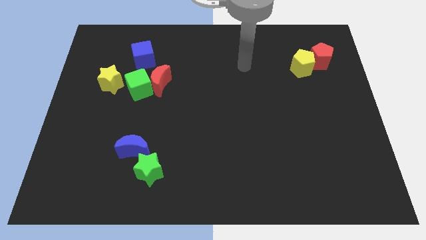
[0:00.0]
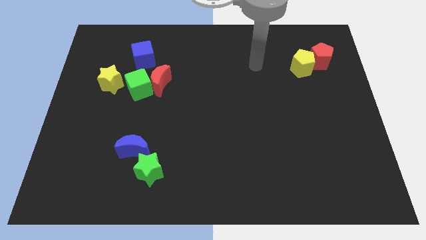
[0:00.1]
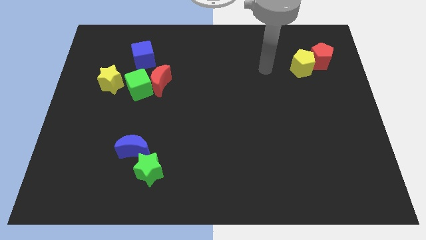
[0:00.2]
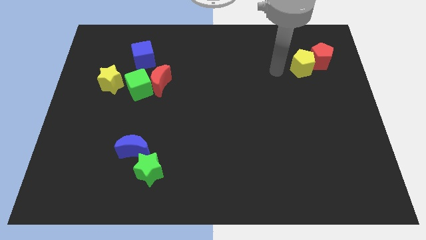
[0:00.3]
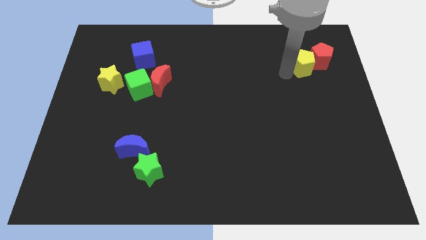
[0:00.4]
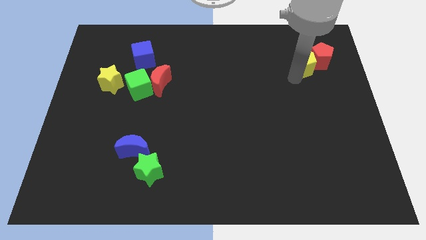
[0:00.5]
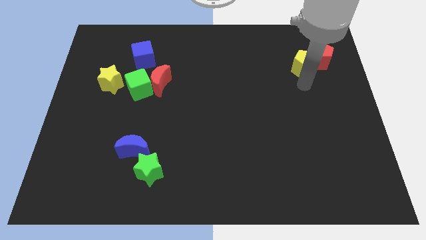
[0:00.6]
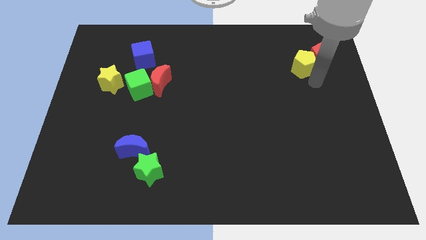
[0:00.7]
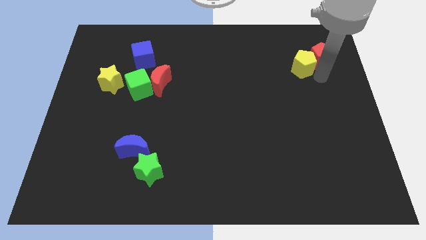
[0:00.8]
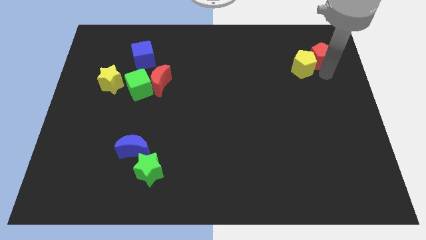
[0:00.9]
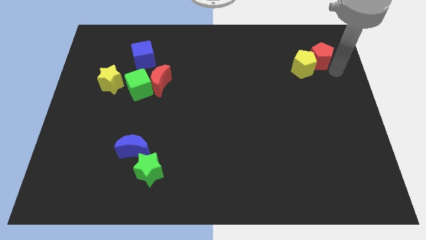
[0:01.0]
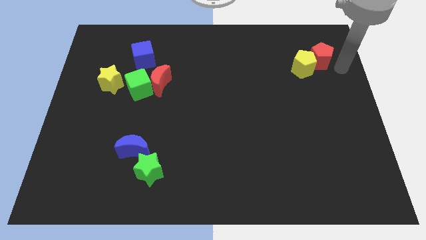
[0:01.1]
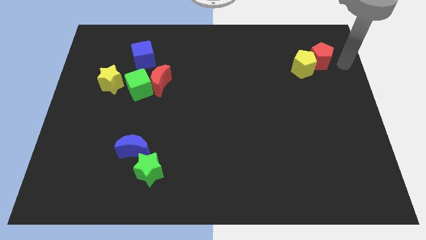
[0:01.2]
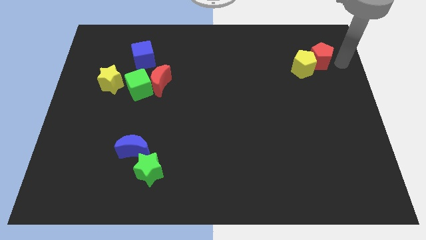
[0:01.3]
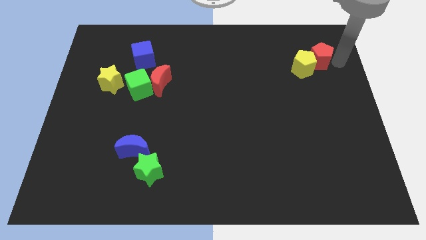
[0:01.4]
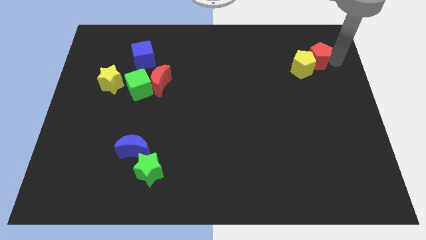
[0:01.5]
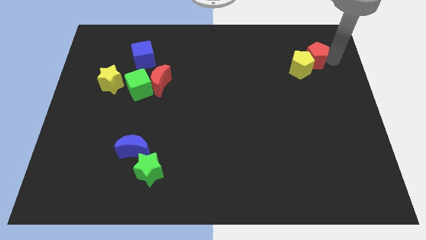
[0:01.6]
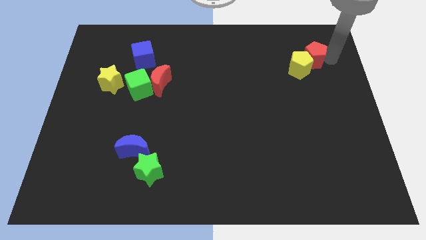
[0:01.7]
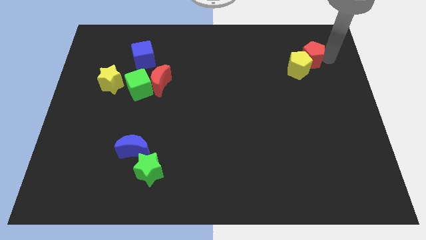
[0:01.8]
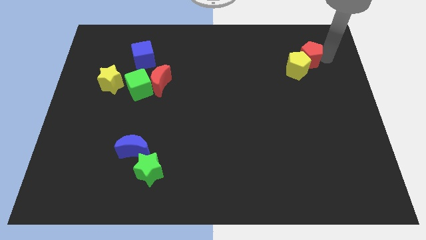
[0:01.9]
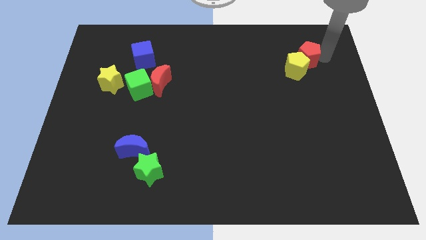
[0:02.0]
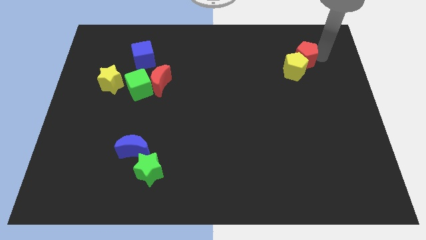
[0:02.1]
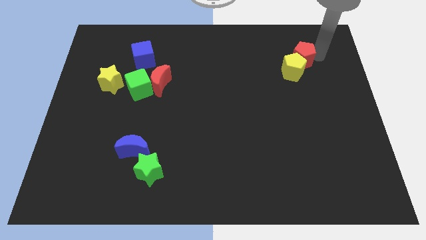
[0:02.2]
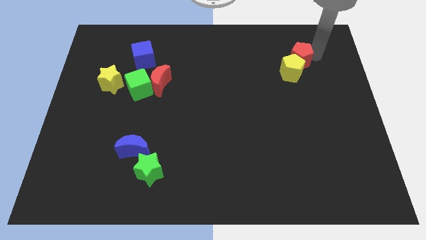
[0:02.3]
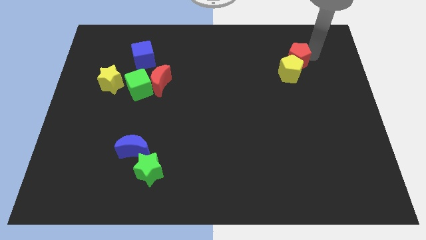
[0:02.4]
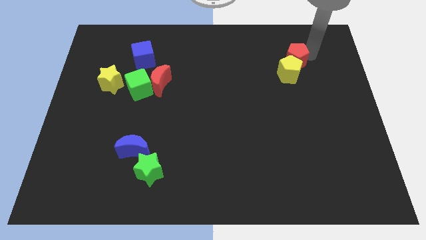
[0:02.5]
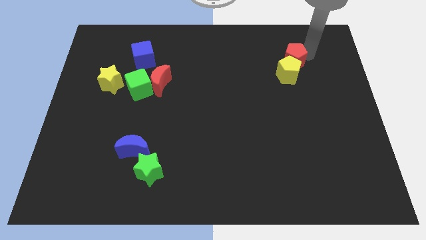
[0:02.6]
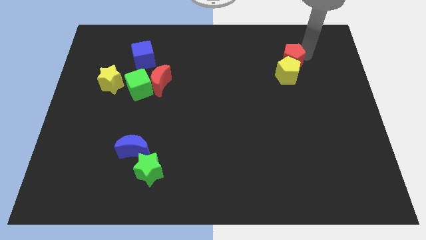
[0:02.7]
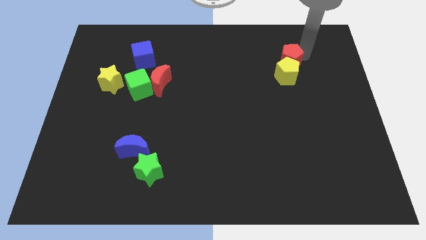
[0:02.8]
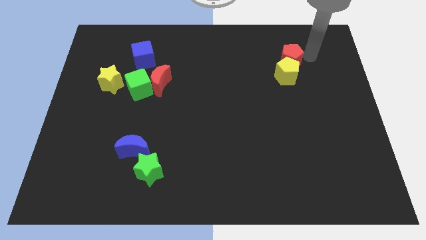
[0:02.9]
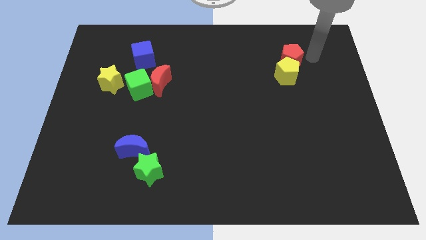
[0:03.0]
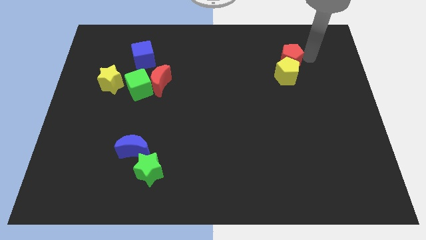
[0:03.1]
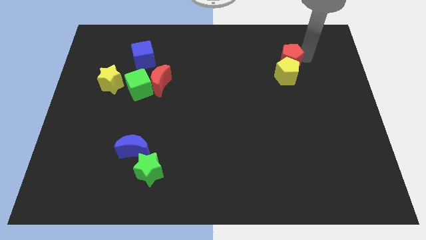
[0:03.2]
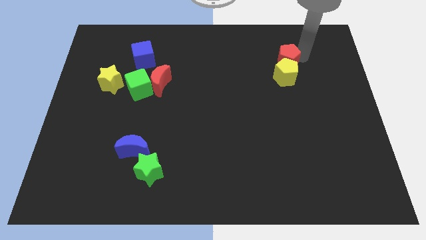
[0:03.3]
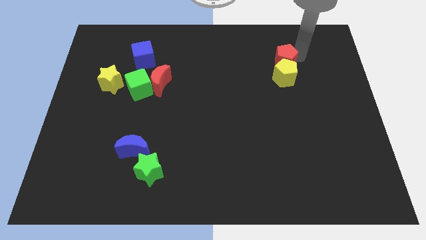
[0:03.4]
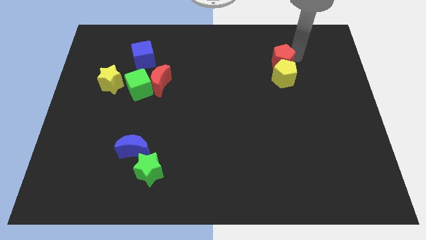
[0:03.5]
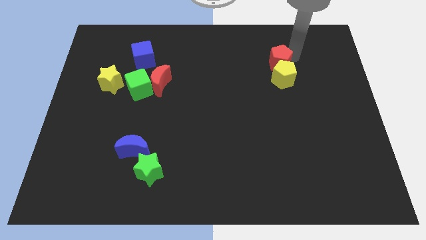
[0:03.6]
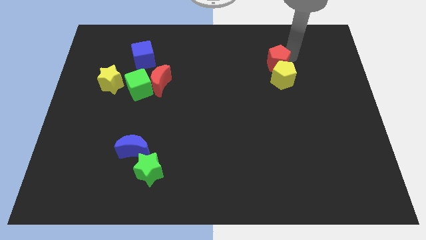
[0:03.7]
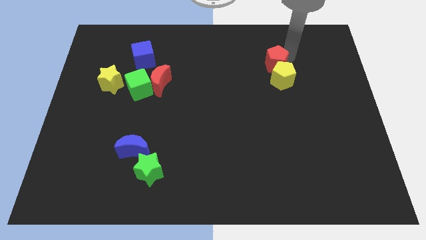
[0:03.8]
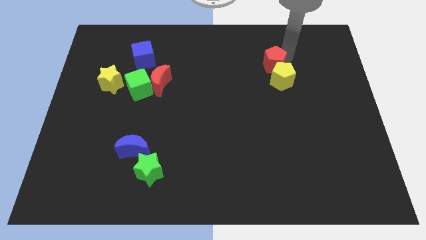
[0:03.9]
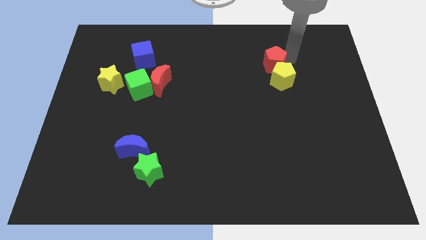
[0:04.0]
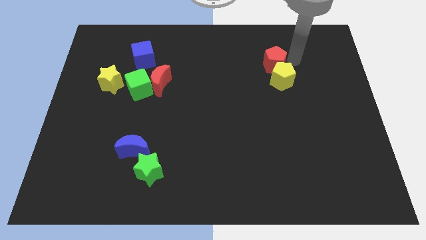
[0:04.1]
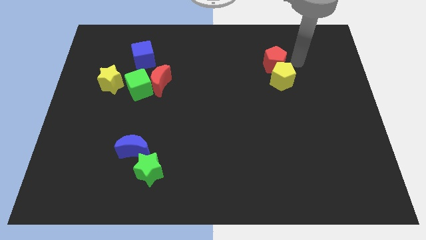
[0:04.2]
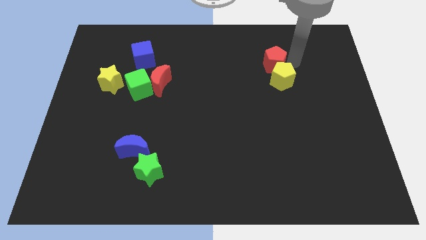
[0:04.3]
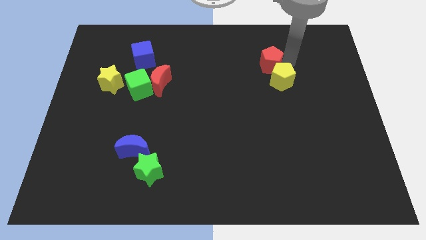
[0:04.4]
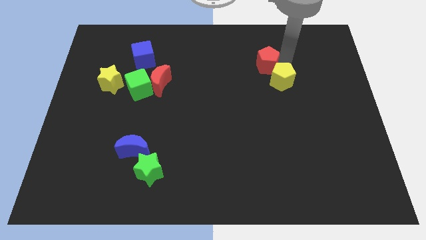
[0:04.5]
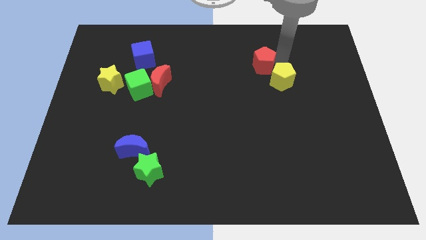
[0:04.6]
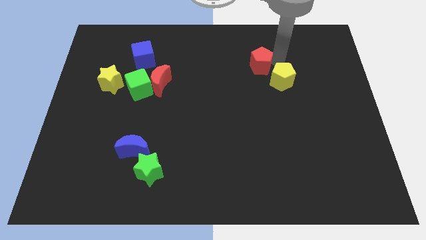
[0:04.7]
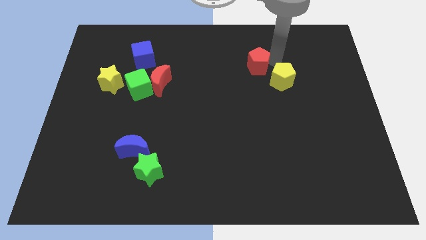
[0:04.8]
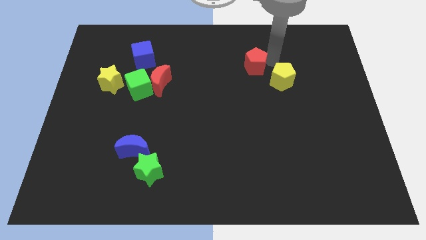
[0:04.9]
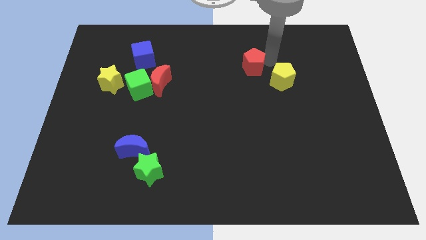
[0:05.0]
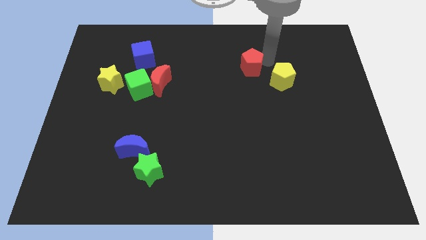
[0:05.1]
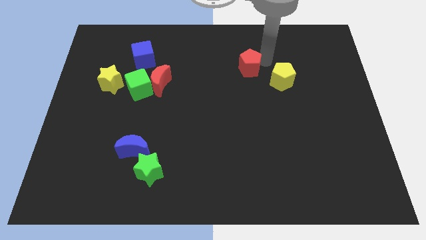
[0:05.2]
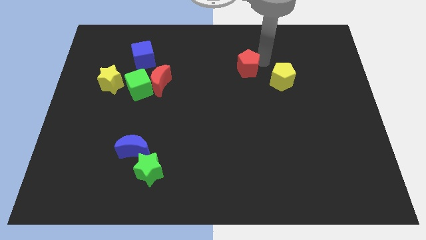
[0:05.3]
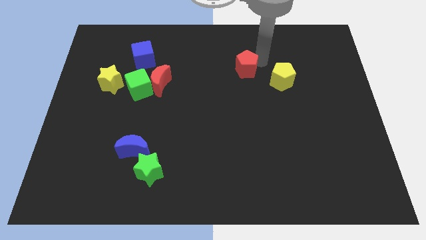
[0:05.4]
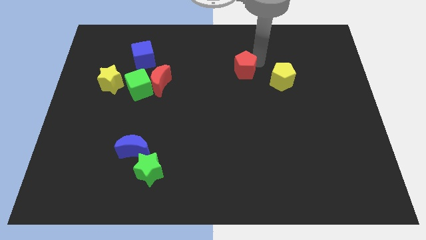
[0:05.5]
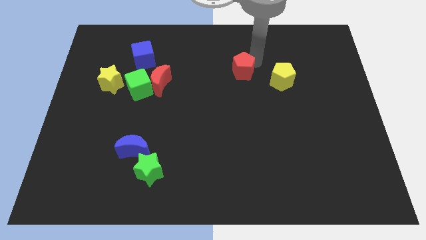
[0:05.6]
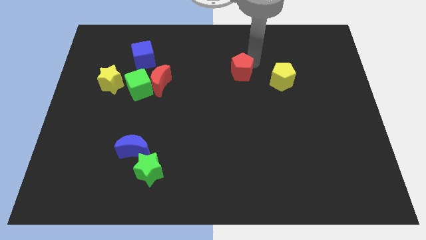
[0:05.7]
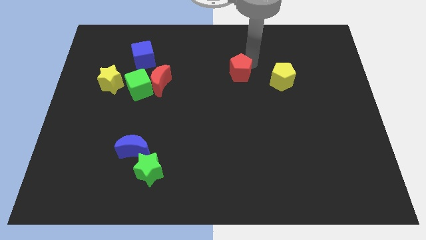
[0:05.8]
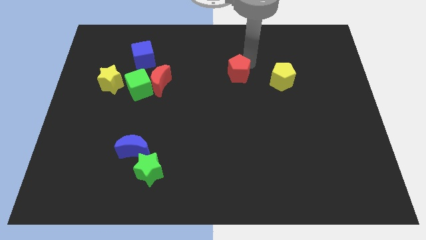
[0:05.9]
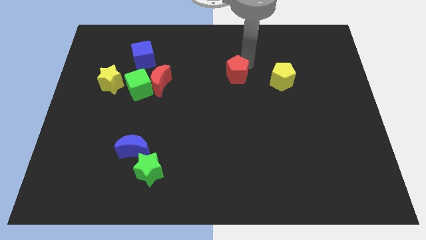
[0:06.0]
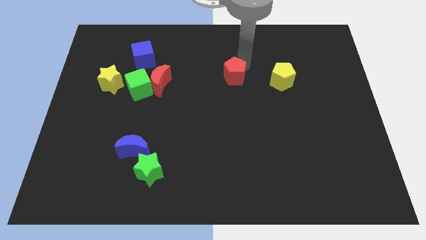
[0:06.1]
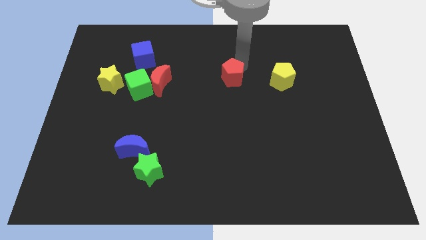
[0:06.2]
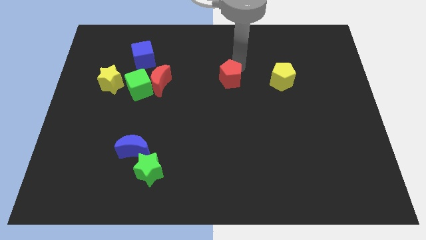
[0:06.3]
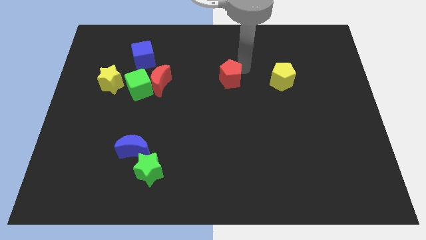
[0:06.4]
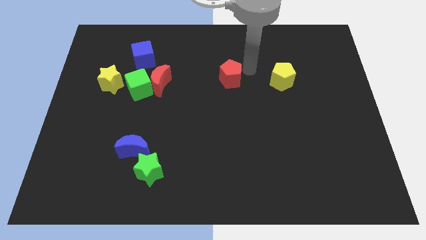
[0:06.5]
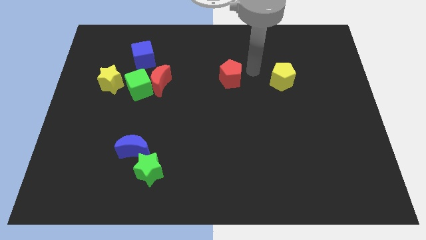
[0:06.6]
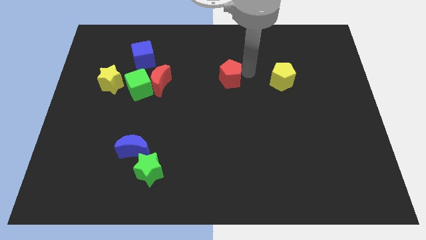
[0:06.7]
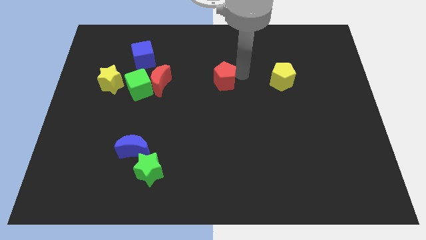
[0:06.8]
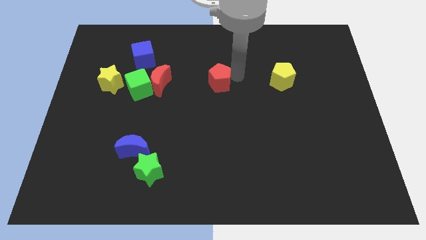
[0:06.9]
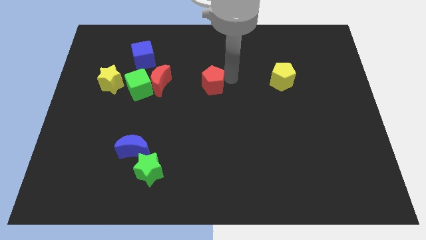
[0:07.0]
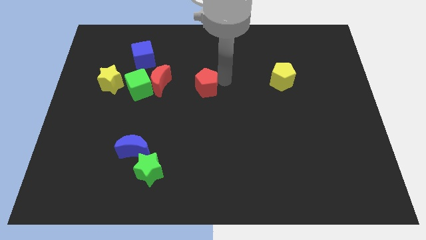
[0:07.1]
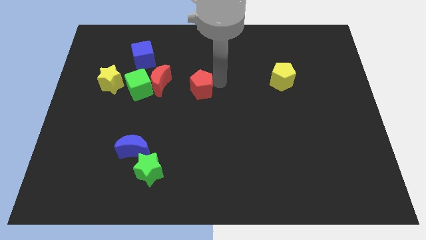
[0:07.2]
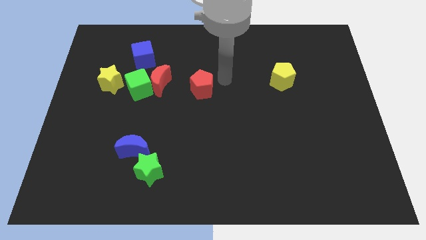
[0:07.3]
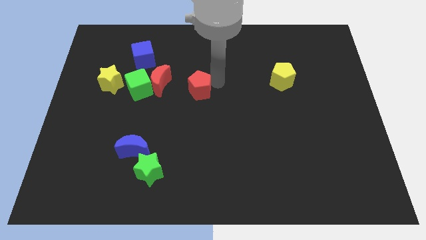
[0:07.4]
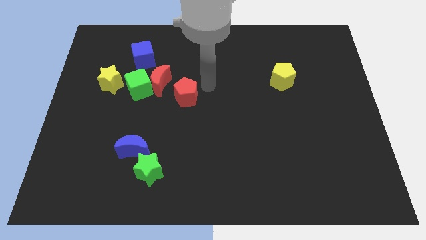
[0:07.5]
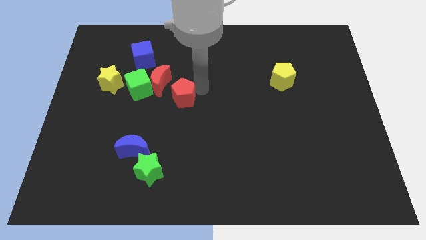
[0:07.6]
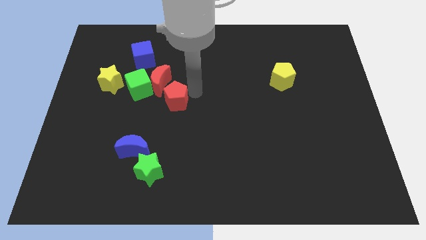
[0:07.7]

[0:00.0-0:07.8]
put the red pentagon to the bottom right of the green cube
